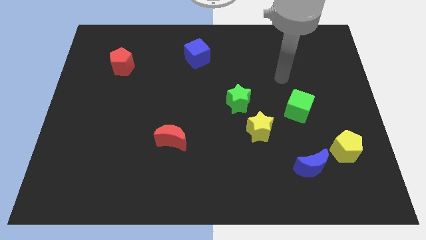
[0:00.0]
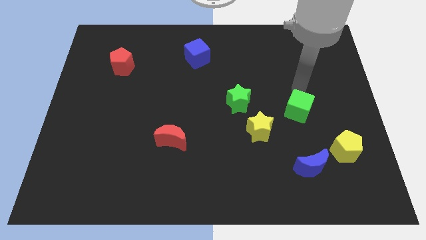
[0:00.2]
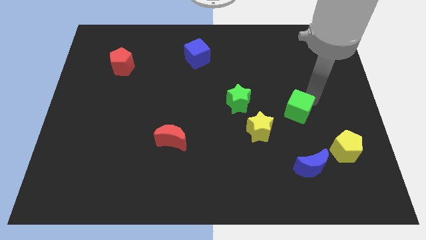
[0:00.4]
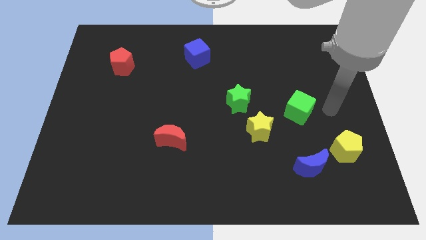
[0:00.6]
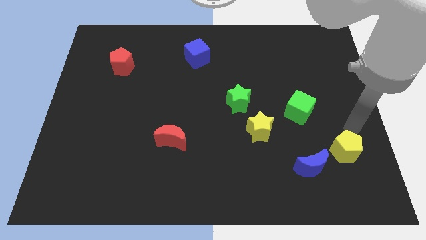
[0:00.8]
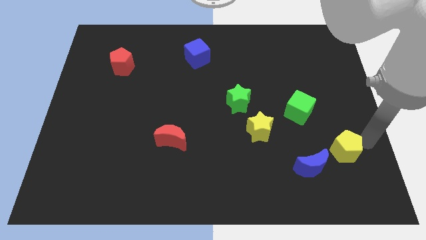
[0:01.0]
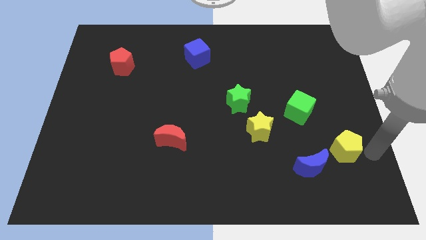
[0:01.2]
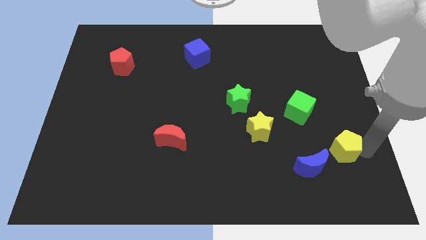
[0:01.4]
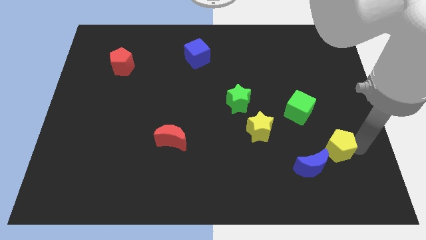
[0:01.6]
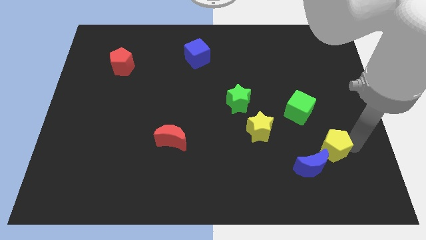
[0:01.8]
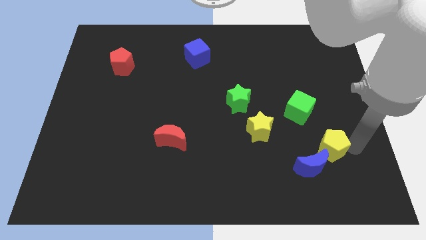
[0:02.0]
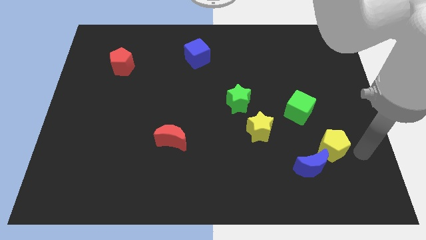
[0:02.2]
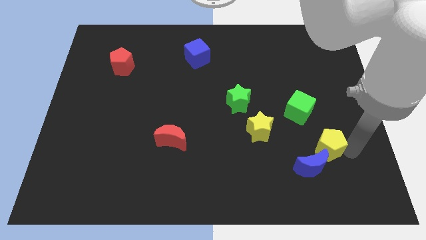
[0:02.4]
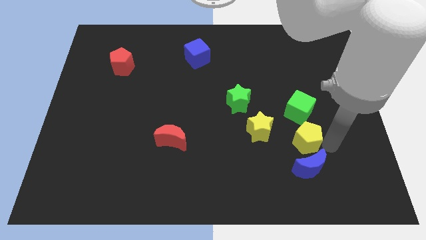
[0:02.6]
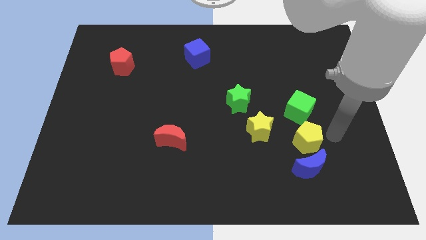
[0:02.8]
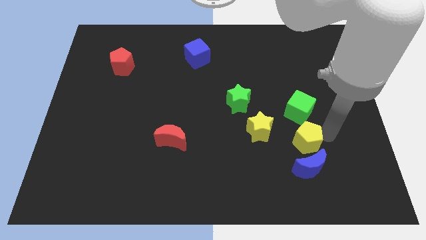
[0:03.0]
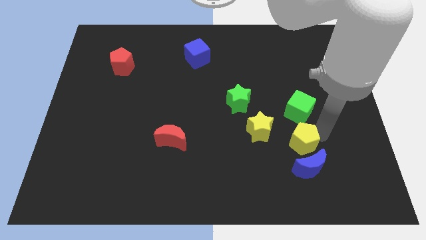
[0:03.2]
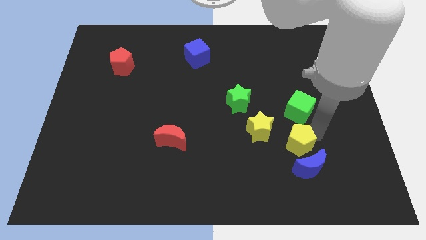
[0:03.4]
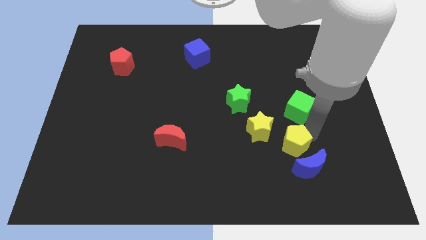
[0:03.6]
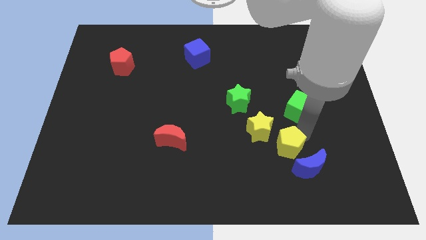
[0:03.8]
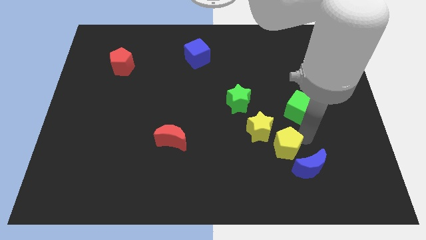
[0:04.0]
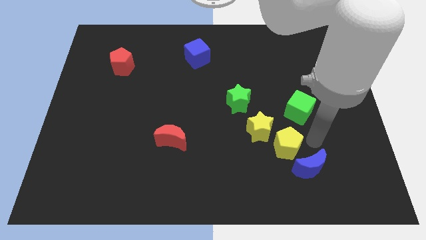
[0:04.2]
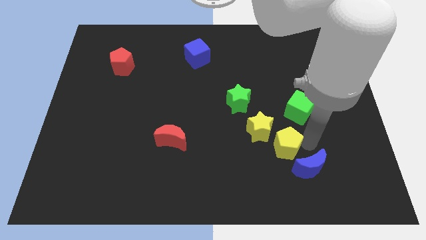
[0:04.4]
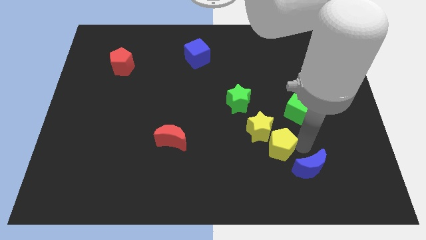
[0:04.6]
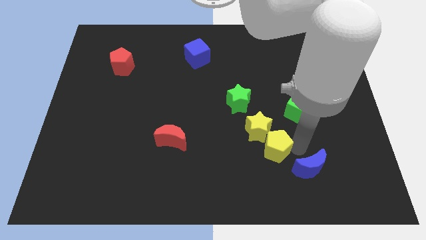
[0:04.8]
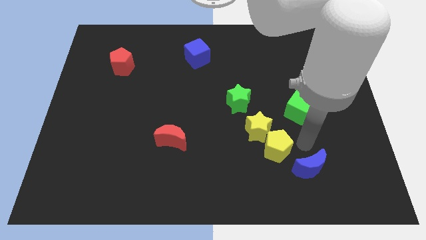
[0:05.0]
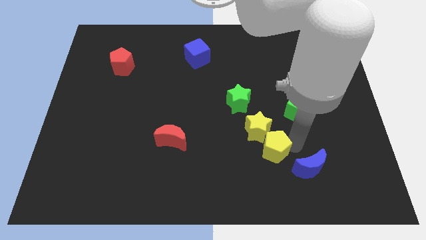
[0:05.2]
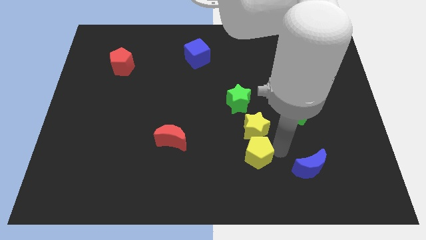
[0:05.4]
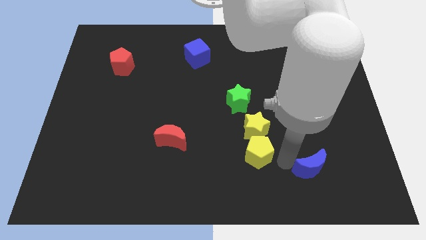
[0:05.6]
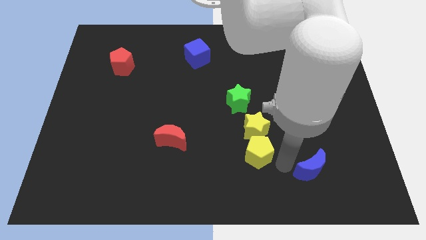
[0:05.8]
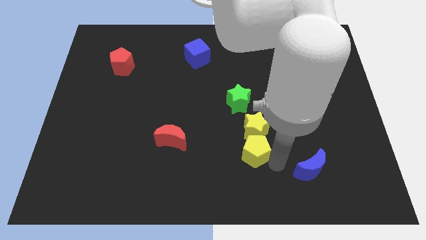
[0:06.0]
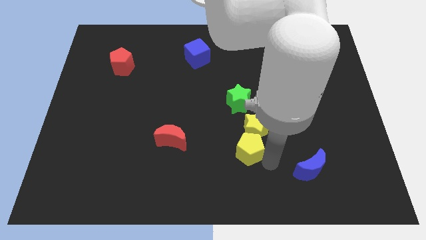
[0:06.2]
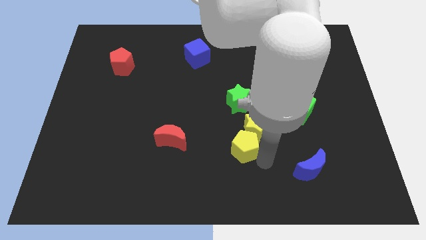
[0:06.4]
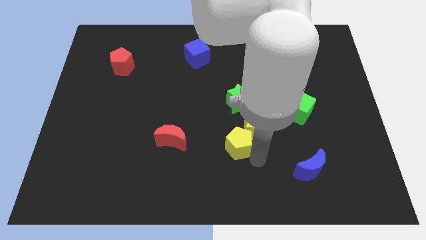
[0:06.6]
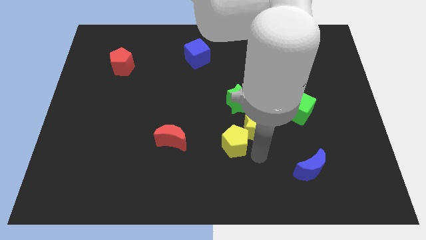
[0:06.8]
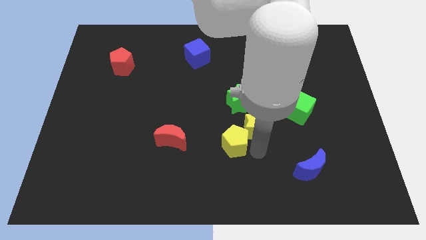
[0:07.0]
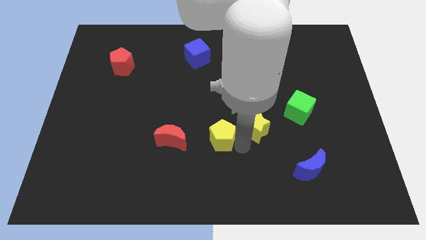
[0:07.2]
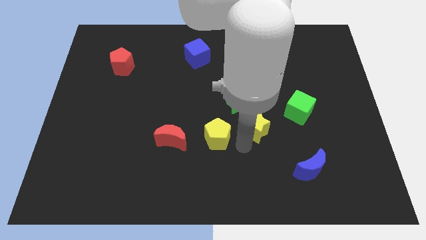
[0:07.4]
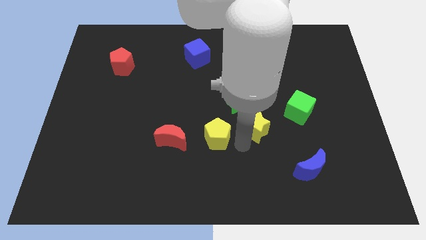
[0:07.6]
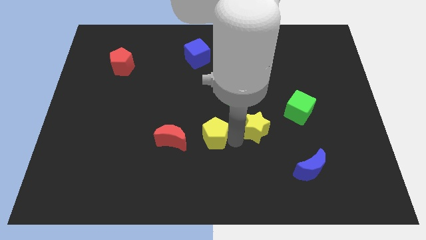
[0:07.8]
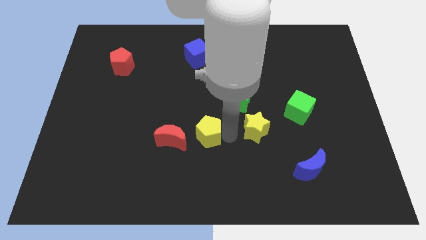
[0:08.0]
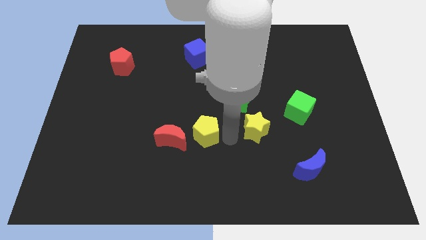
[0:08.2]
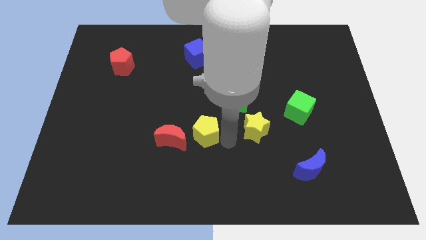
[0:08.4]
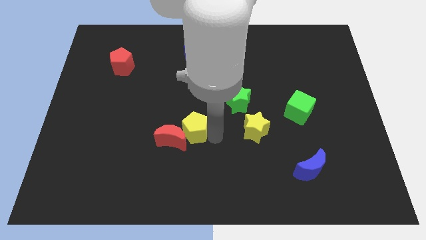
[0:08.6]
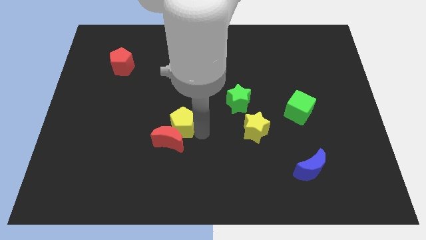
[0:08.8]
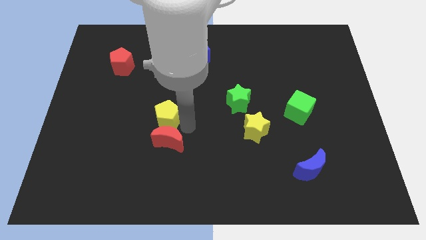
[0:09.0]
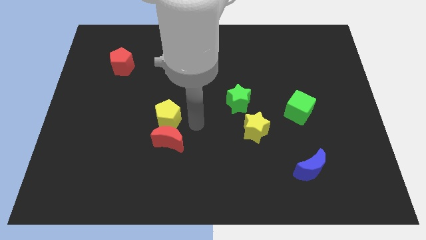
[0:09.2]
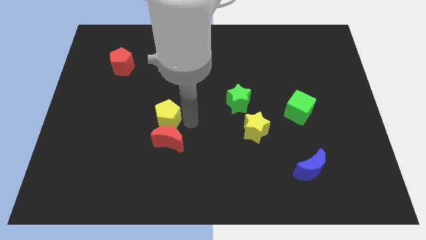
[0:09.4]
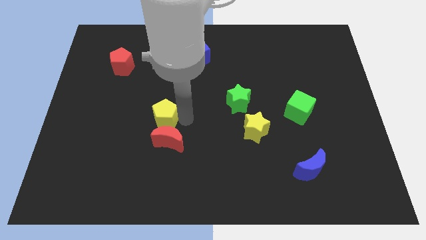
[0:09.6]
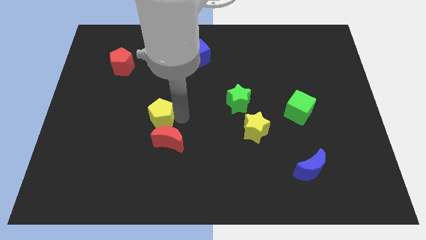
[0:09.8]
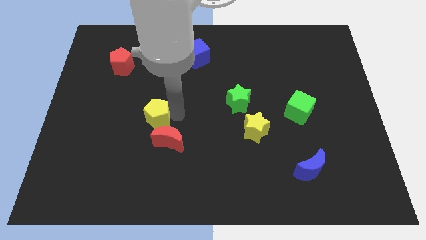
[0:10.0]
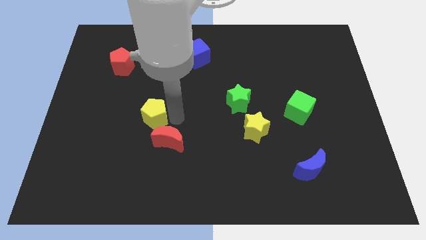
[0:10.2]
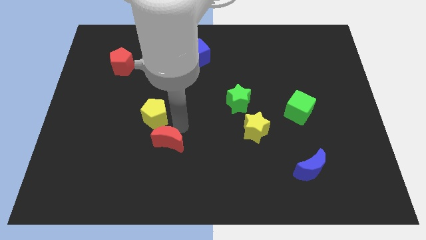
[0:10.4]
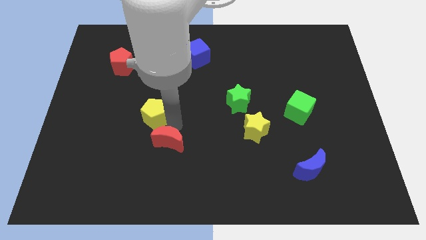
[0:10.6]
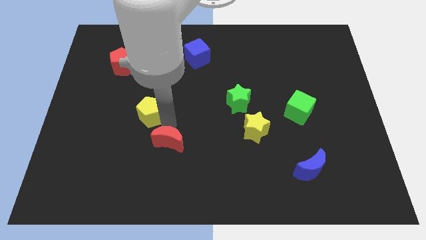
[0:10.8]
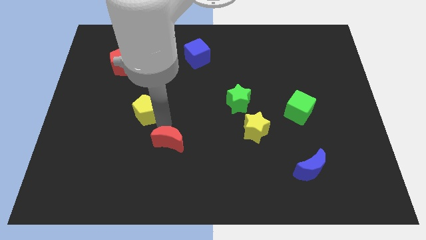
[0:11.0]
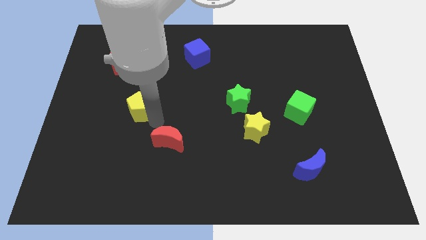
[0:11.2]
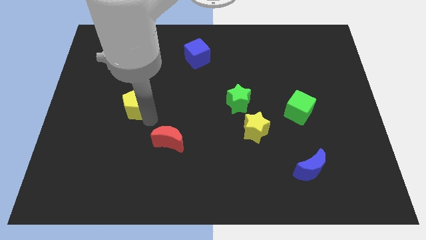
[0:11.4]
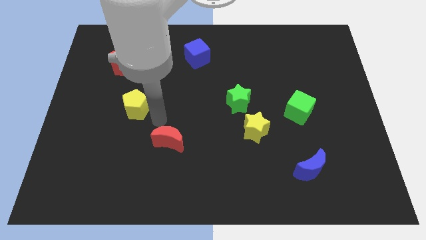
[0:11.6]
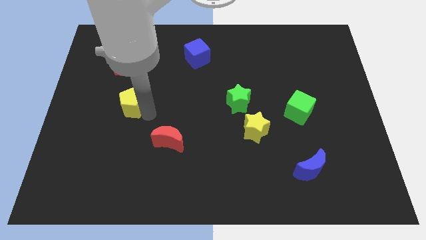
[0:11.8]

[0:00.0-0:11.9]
push the yellow pentagon to the bottom of the red pentagon

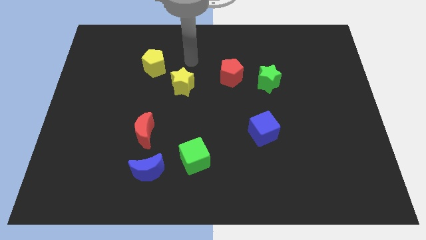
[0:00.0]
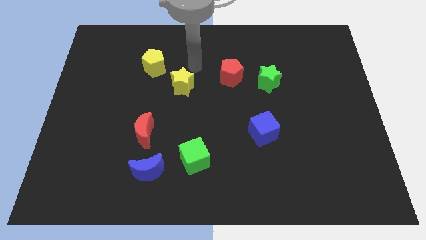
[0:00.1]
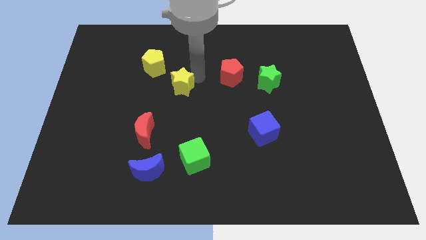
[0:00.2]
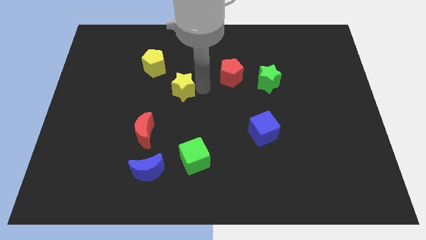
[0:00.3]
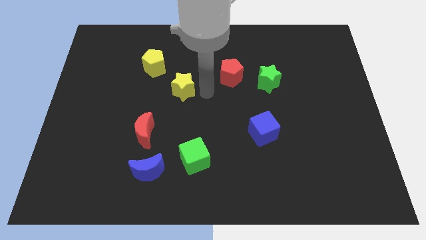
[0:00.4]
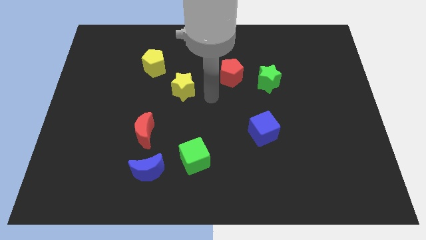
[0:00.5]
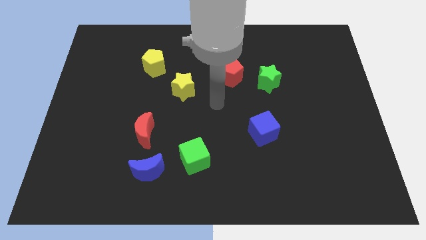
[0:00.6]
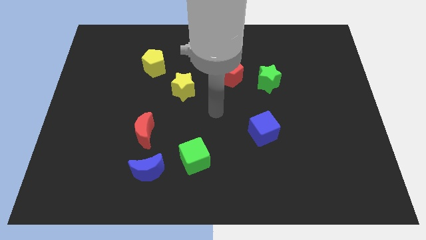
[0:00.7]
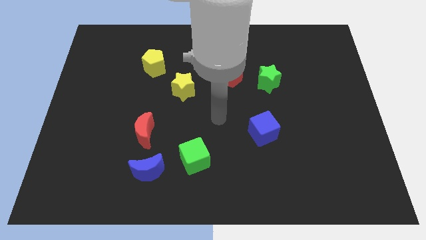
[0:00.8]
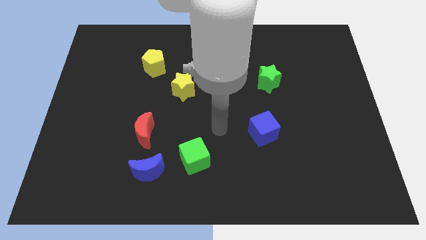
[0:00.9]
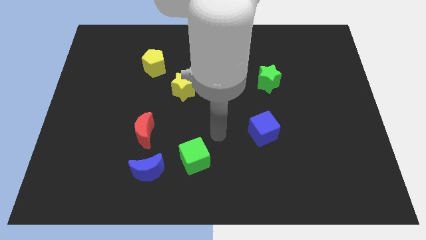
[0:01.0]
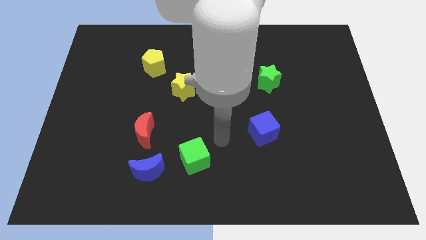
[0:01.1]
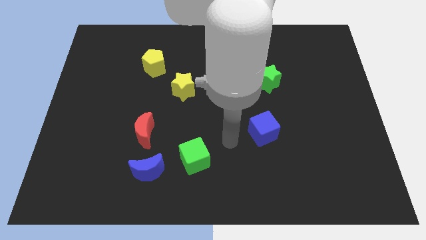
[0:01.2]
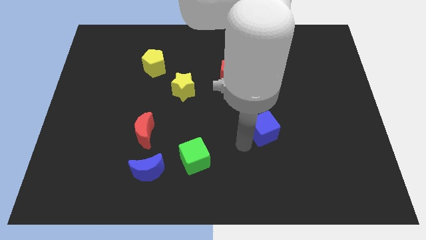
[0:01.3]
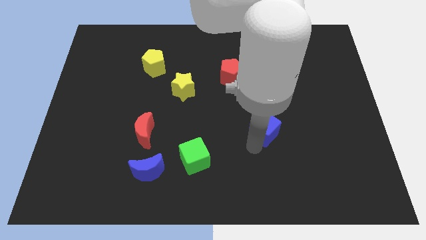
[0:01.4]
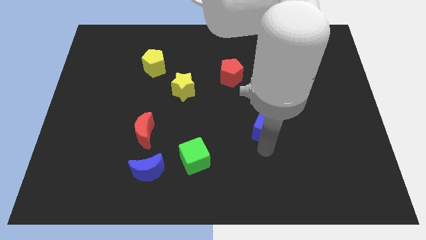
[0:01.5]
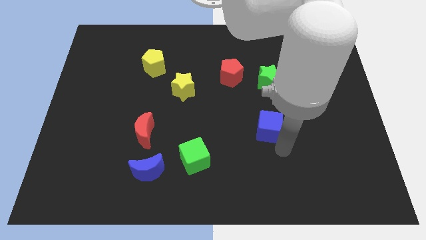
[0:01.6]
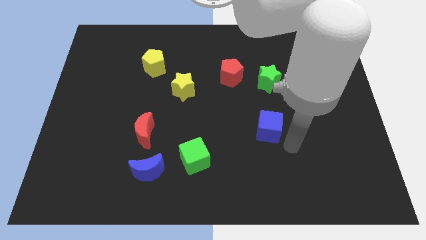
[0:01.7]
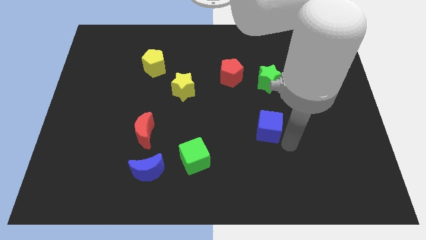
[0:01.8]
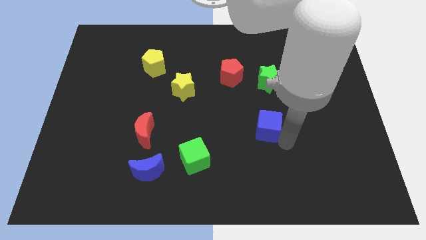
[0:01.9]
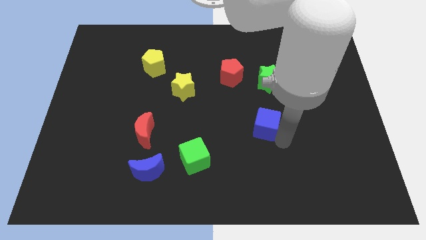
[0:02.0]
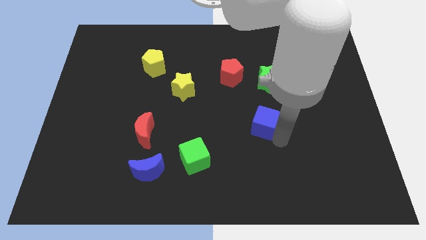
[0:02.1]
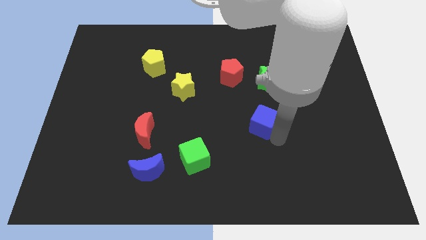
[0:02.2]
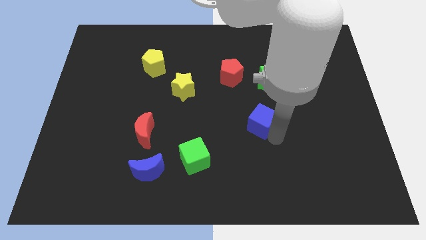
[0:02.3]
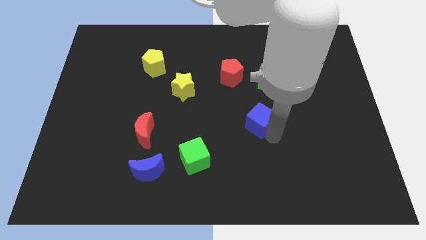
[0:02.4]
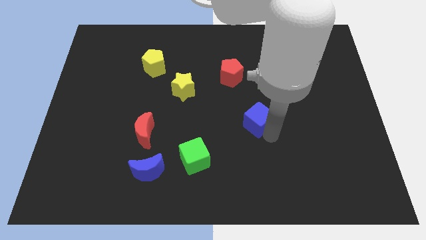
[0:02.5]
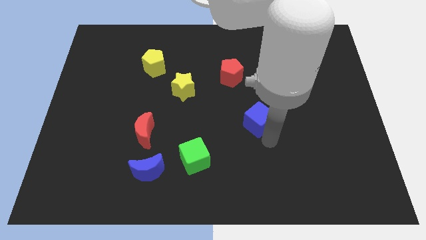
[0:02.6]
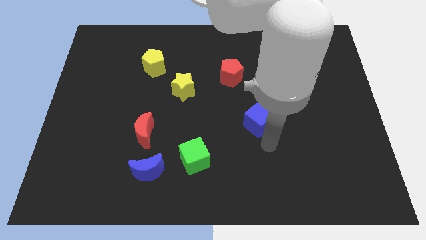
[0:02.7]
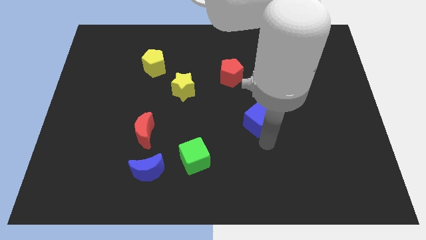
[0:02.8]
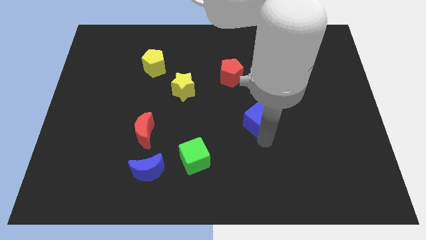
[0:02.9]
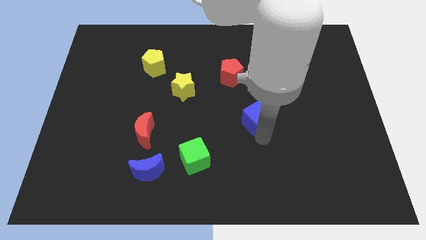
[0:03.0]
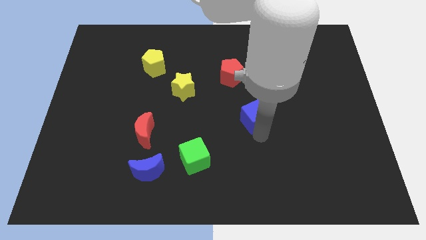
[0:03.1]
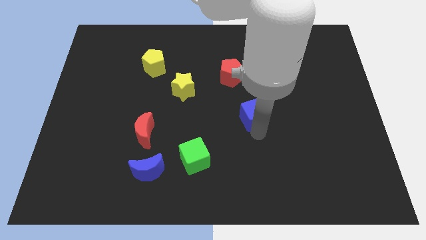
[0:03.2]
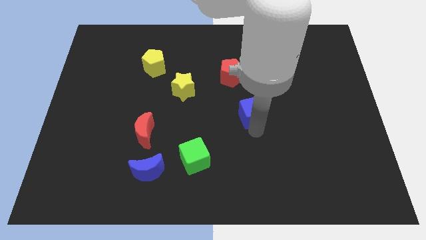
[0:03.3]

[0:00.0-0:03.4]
move the blue cube diagonally down and to the left of the green star
